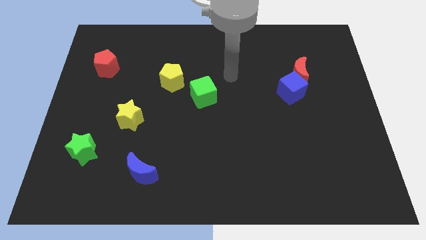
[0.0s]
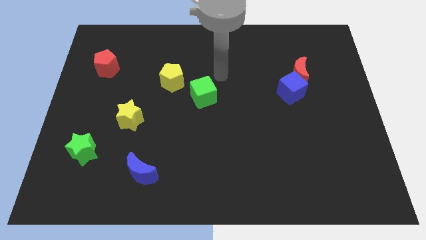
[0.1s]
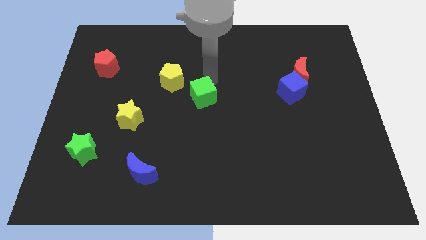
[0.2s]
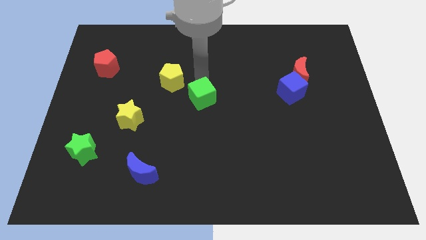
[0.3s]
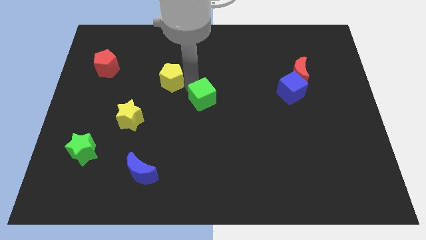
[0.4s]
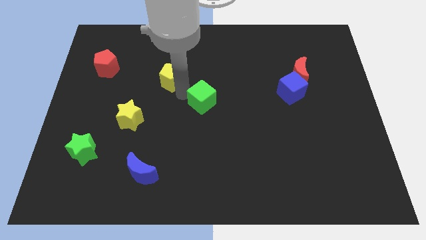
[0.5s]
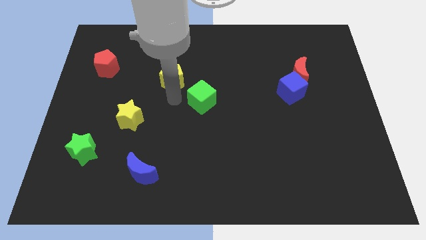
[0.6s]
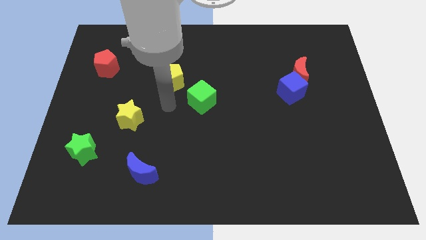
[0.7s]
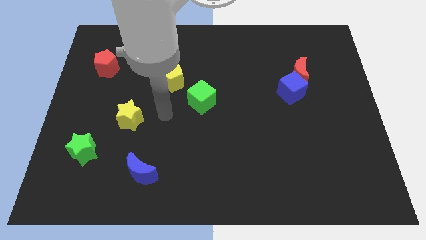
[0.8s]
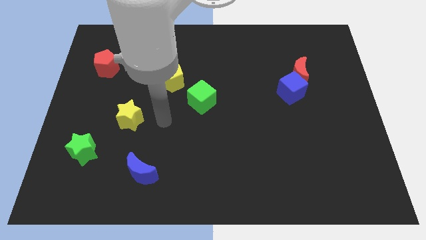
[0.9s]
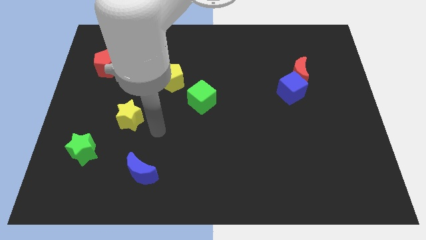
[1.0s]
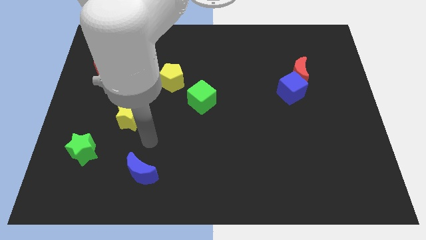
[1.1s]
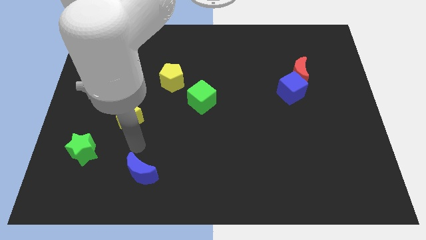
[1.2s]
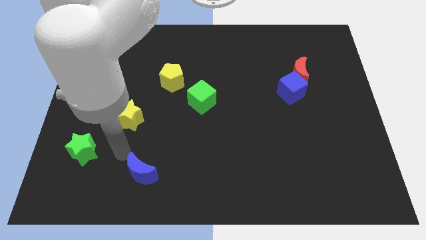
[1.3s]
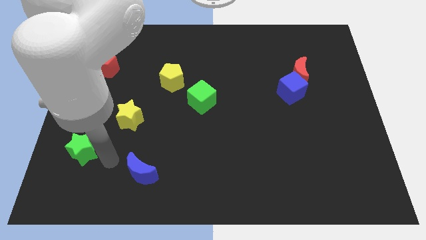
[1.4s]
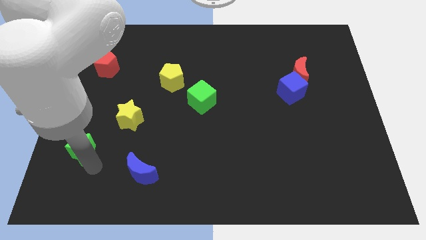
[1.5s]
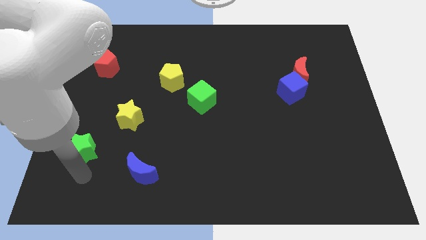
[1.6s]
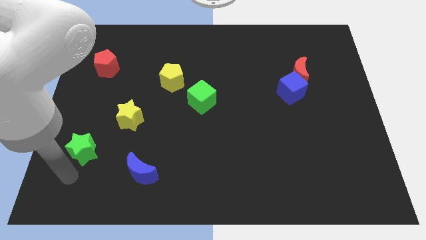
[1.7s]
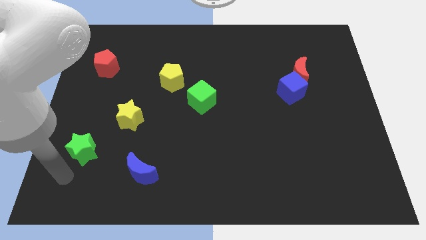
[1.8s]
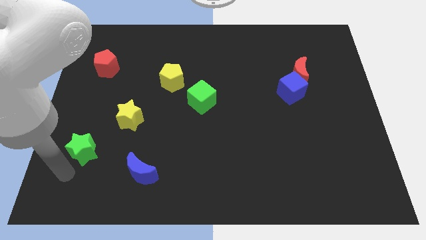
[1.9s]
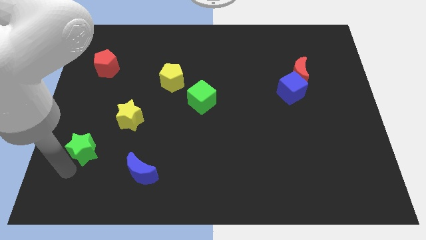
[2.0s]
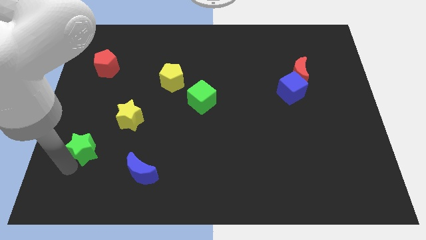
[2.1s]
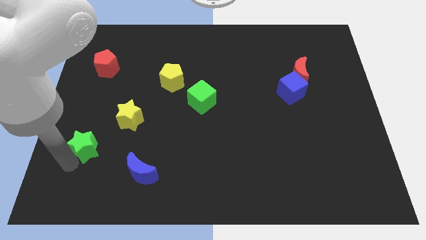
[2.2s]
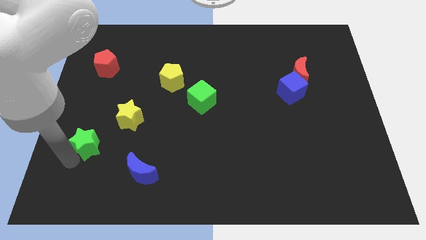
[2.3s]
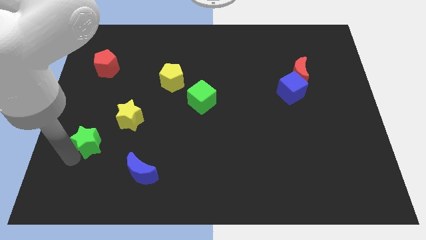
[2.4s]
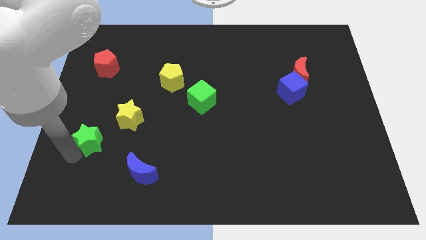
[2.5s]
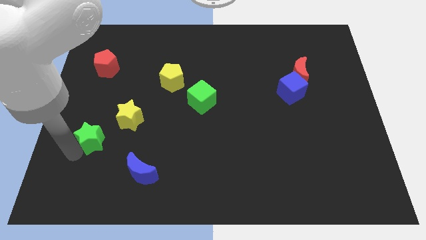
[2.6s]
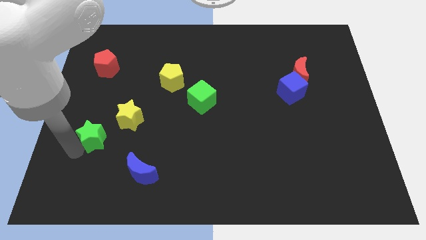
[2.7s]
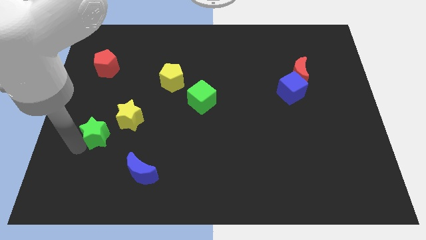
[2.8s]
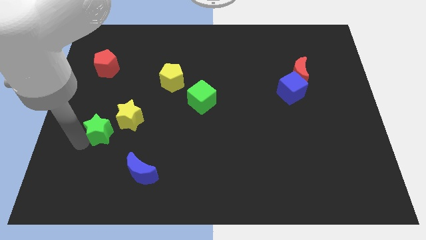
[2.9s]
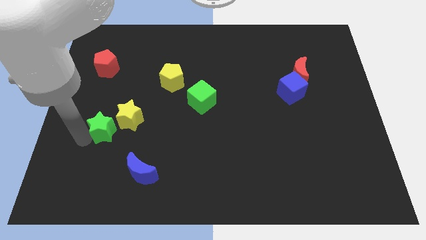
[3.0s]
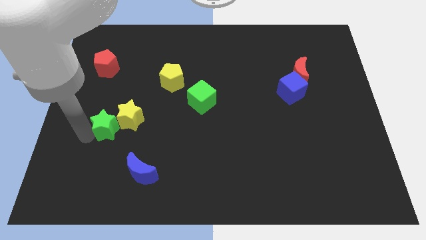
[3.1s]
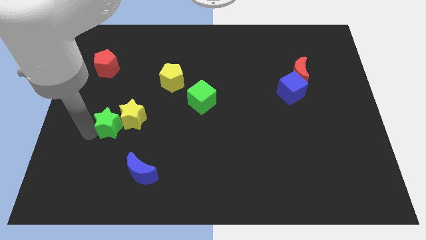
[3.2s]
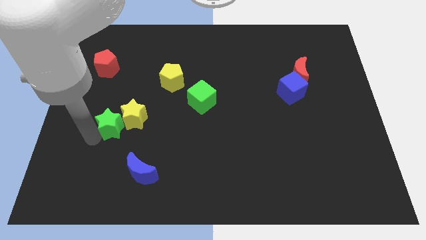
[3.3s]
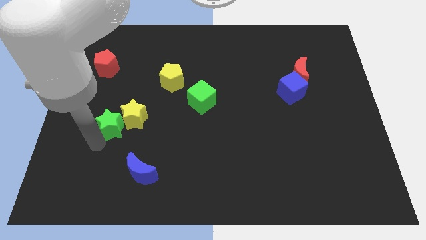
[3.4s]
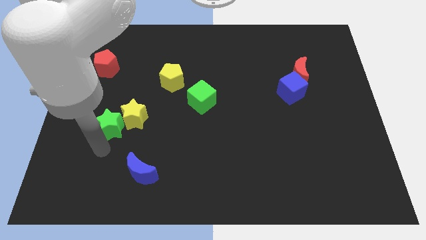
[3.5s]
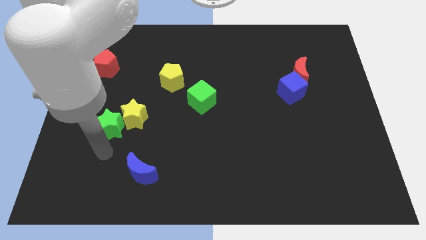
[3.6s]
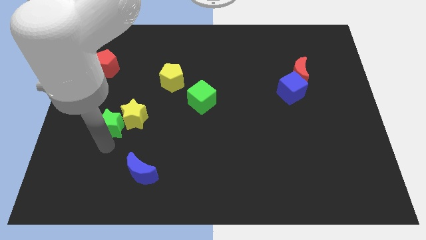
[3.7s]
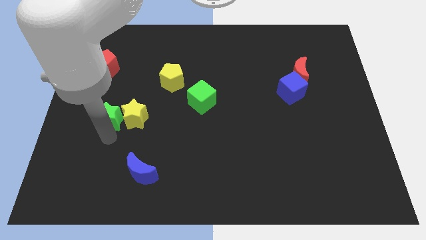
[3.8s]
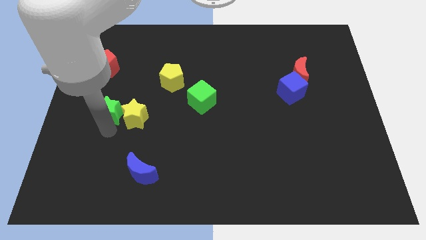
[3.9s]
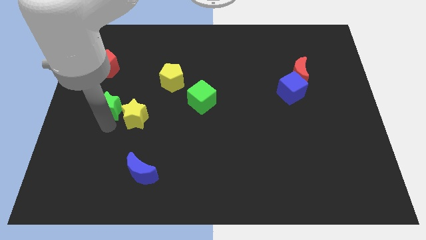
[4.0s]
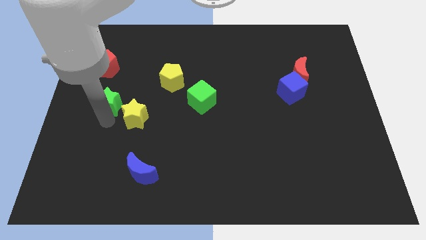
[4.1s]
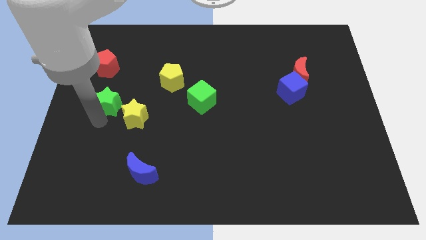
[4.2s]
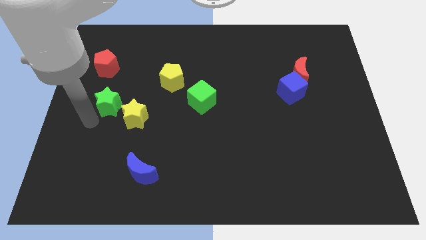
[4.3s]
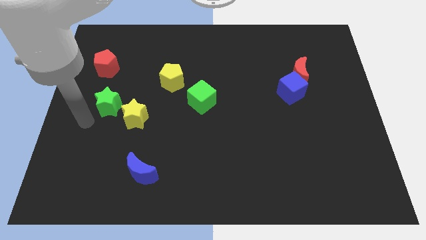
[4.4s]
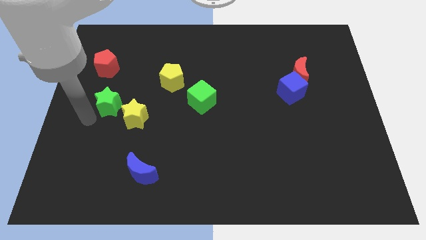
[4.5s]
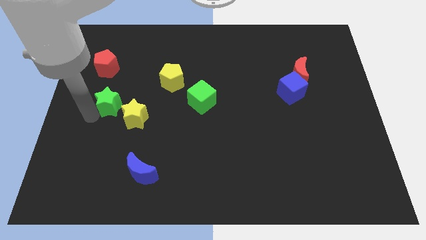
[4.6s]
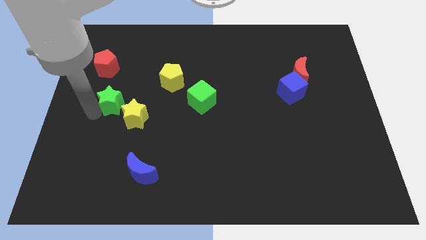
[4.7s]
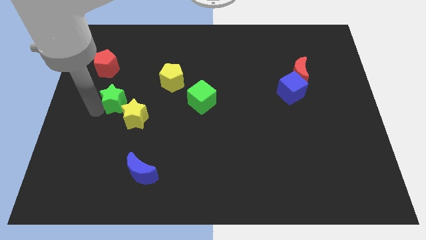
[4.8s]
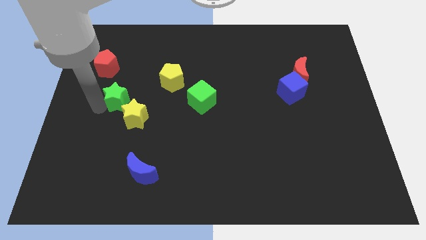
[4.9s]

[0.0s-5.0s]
move the green star to the top of the yellow star

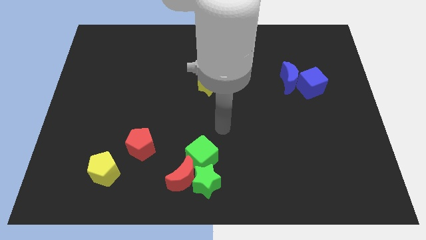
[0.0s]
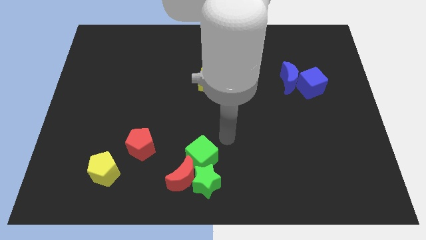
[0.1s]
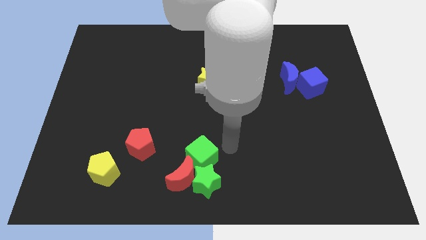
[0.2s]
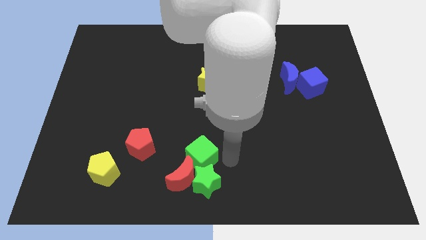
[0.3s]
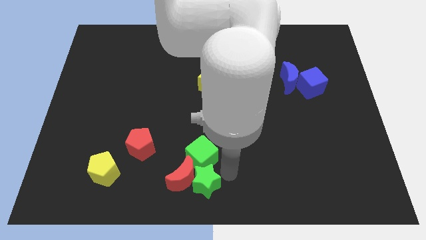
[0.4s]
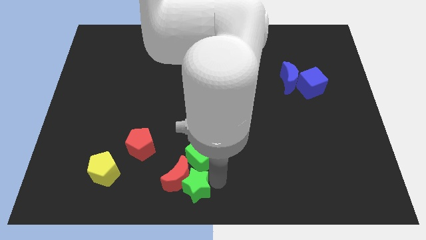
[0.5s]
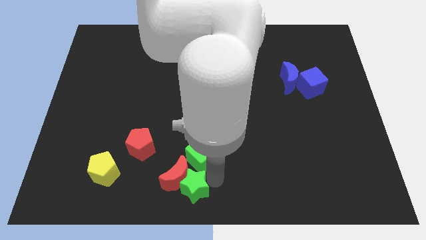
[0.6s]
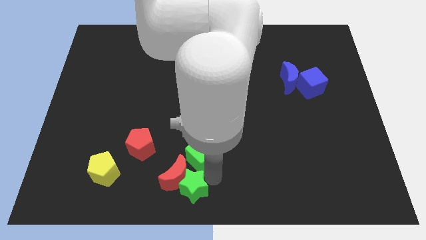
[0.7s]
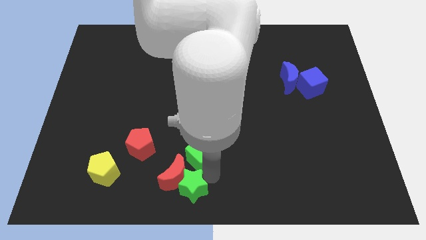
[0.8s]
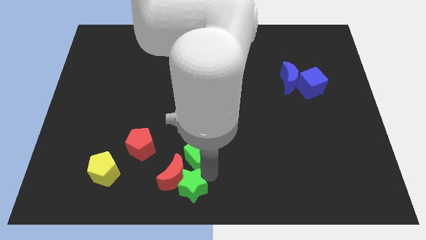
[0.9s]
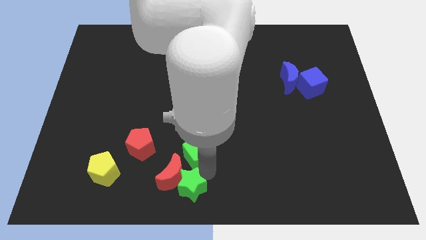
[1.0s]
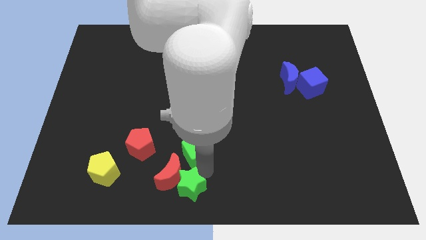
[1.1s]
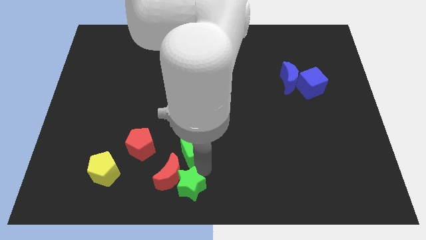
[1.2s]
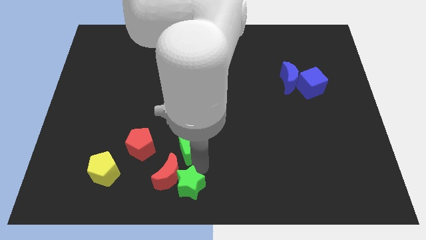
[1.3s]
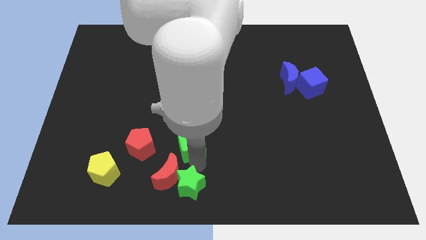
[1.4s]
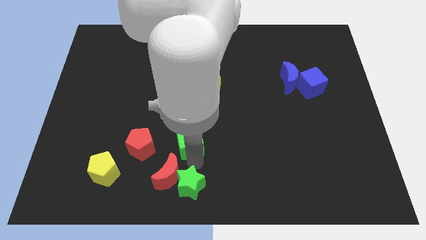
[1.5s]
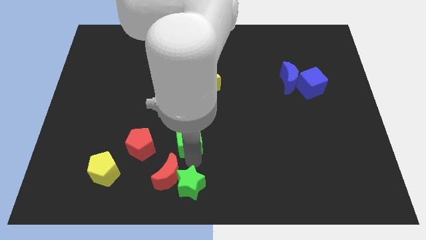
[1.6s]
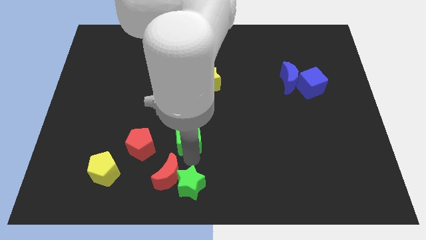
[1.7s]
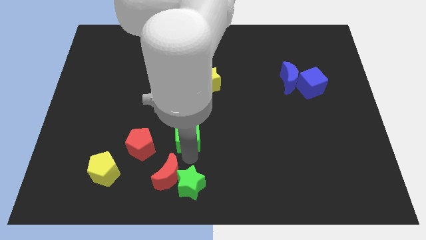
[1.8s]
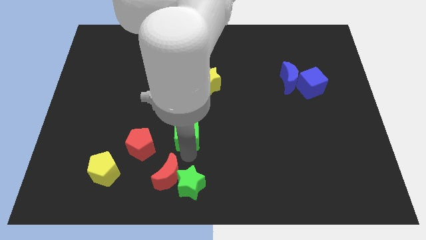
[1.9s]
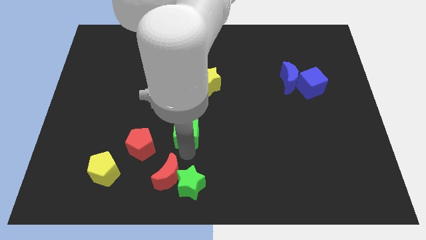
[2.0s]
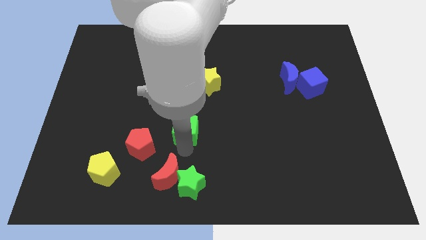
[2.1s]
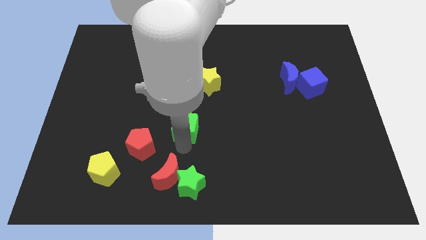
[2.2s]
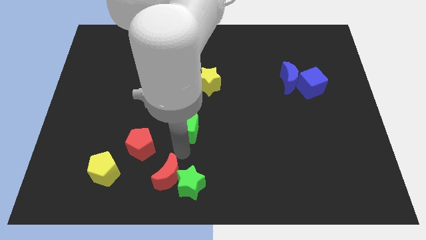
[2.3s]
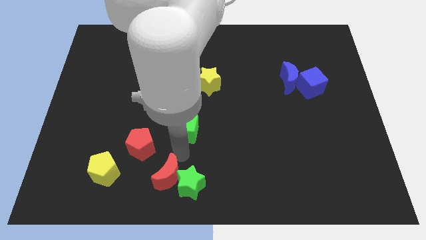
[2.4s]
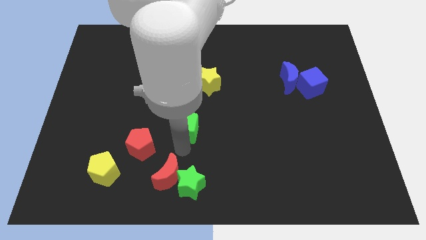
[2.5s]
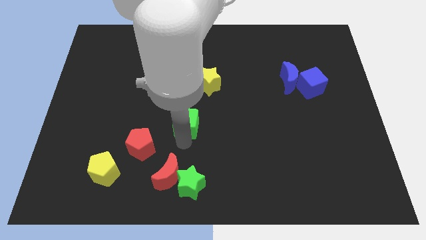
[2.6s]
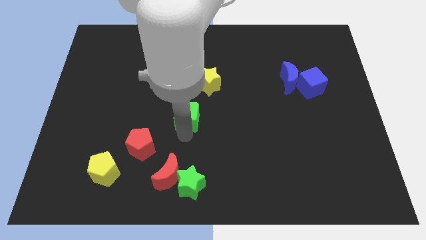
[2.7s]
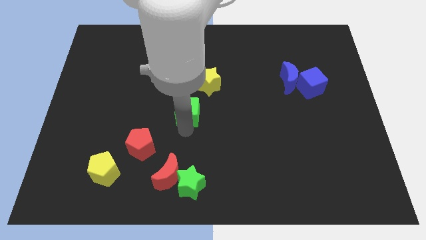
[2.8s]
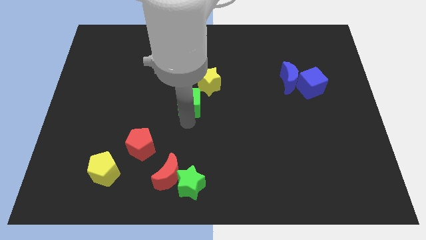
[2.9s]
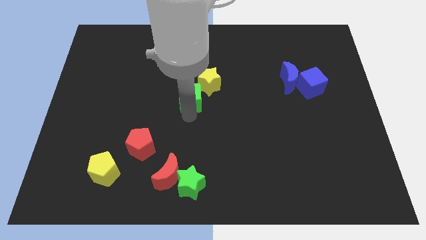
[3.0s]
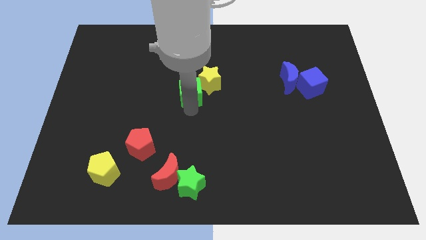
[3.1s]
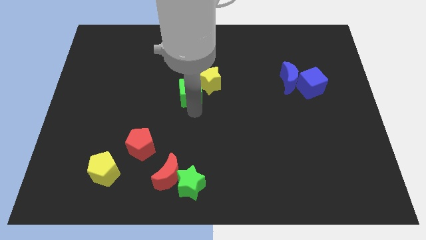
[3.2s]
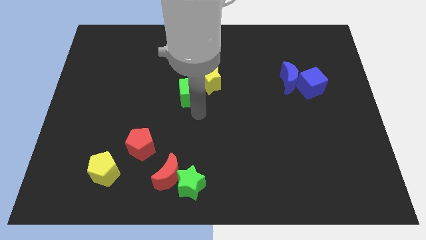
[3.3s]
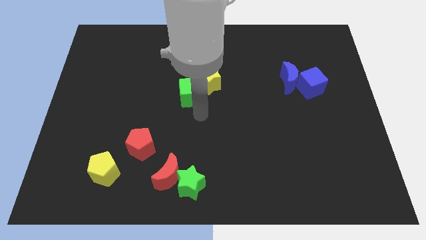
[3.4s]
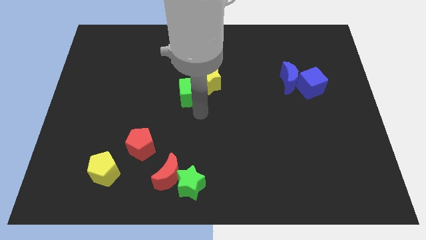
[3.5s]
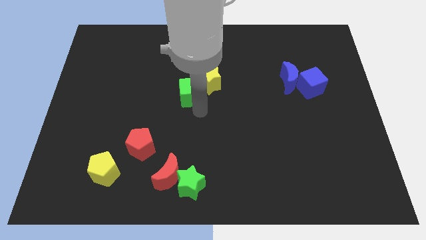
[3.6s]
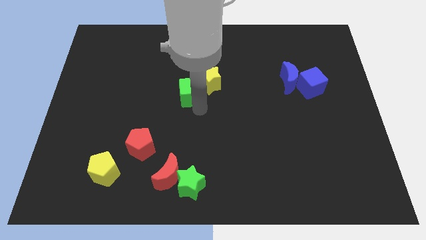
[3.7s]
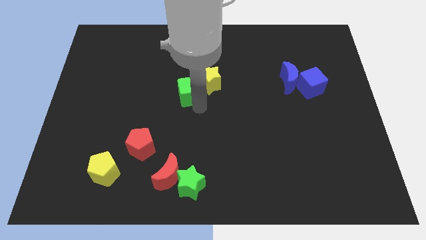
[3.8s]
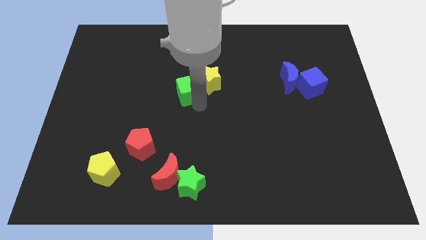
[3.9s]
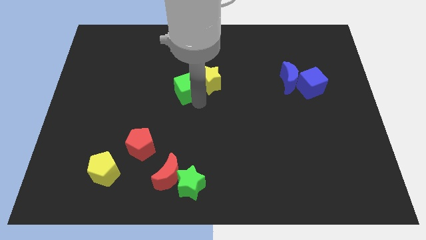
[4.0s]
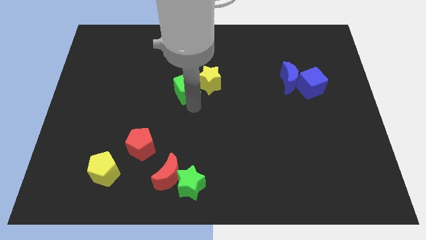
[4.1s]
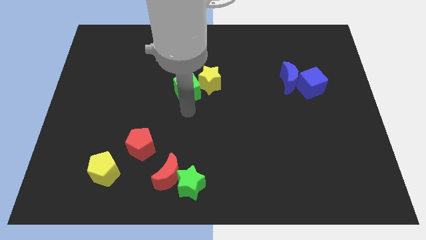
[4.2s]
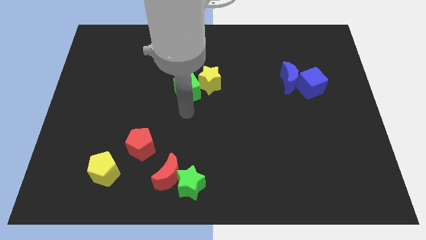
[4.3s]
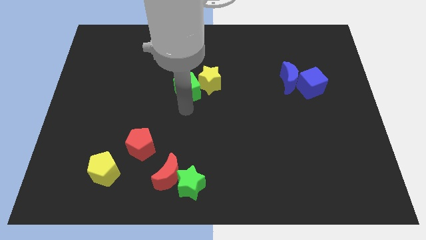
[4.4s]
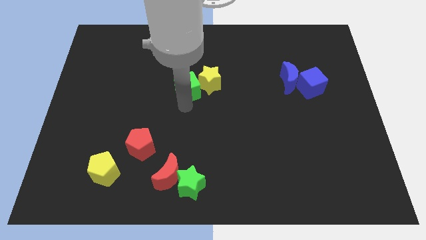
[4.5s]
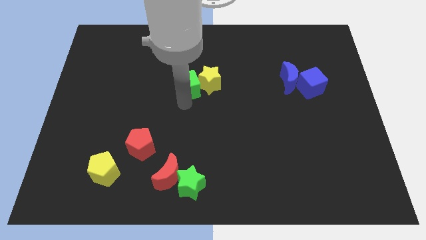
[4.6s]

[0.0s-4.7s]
move the green cube to the top left of the yellow star
